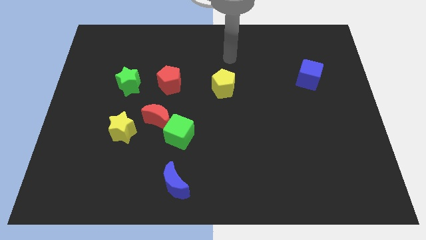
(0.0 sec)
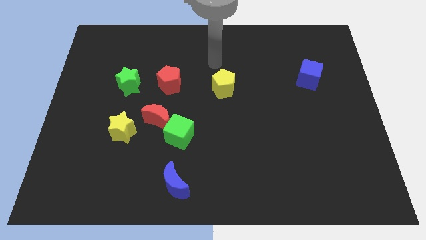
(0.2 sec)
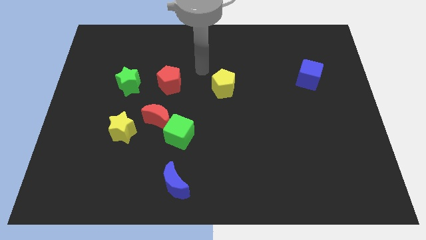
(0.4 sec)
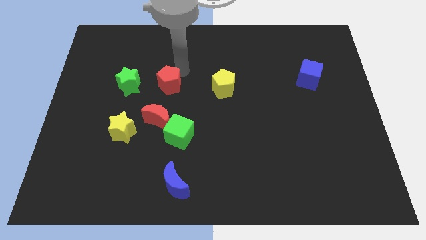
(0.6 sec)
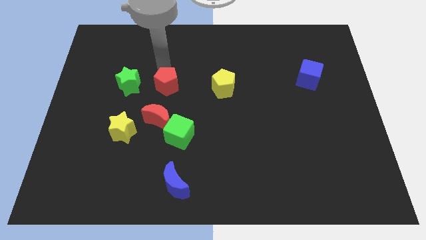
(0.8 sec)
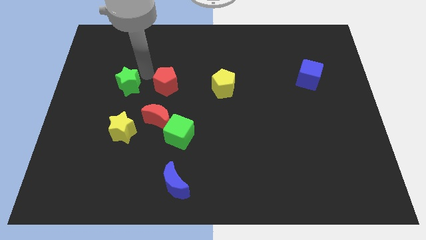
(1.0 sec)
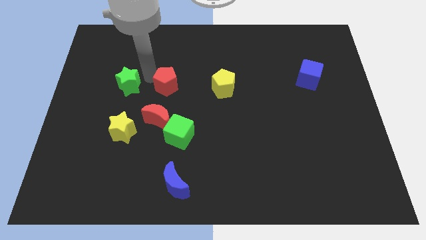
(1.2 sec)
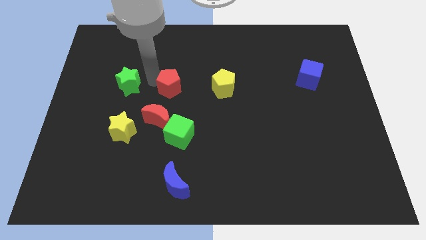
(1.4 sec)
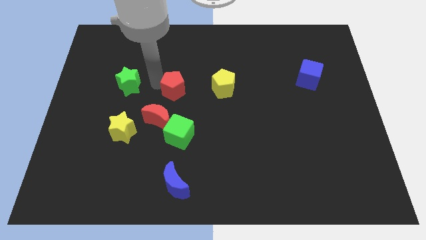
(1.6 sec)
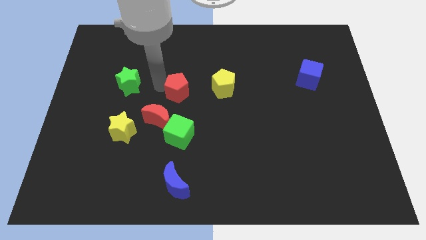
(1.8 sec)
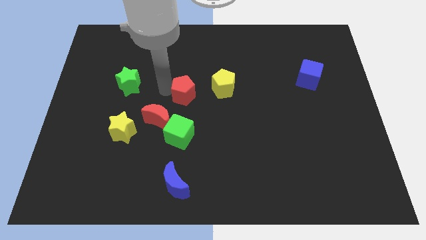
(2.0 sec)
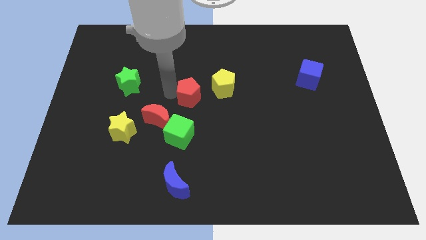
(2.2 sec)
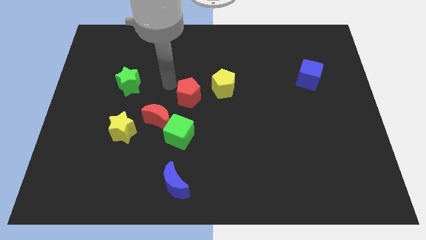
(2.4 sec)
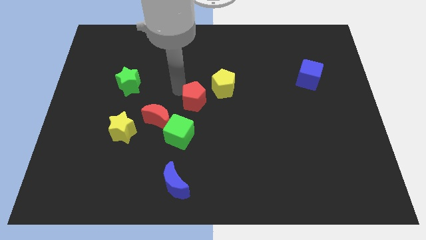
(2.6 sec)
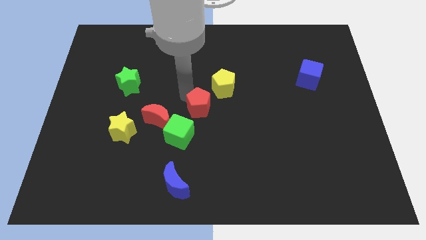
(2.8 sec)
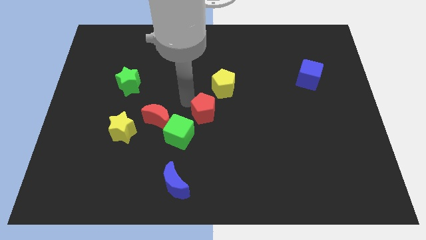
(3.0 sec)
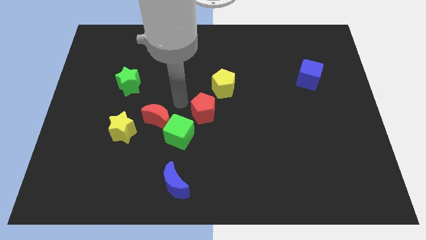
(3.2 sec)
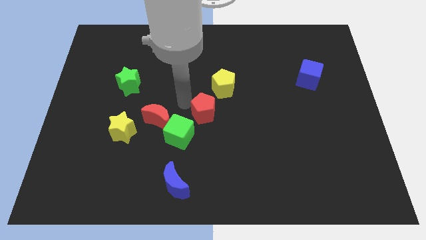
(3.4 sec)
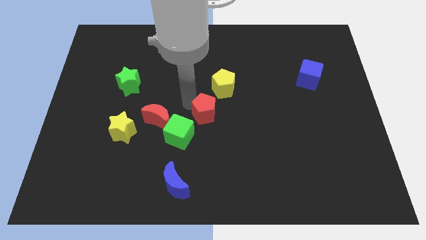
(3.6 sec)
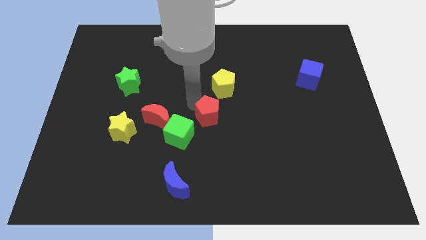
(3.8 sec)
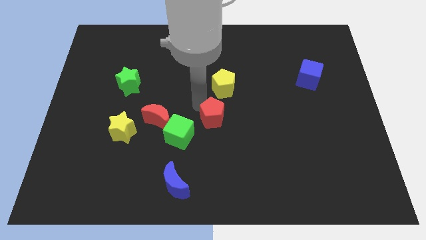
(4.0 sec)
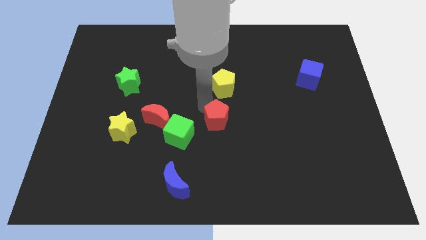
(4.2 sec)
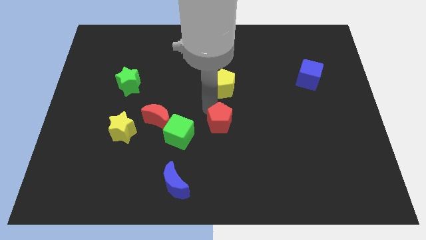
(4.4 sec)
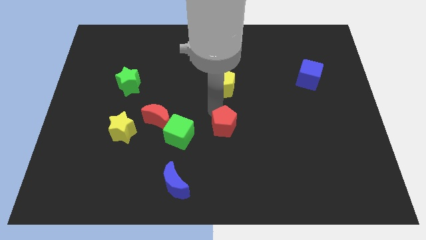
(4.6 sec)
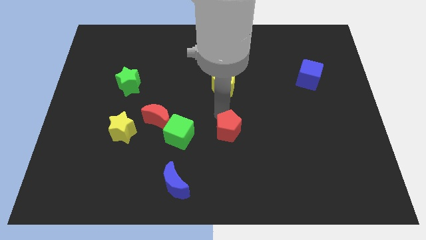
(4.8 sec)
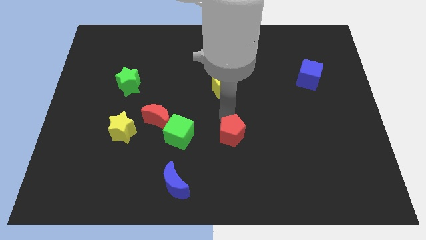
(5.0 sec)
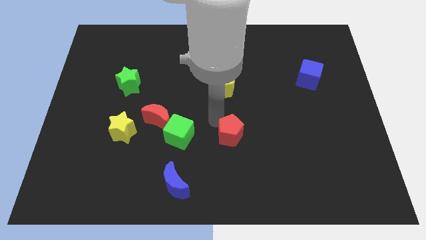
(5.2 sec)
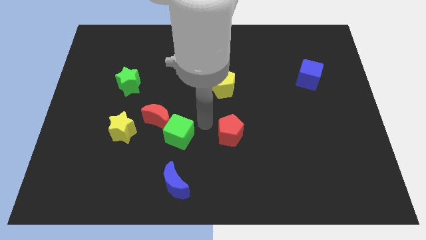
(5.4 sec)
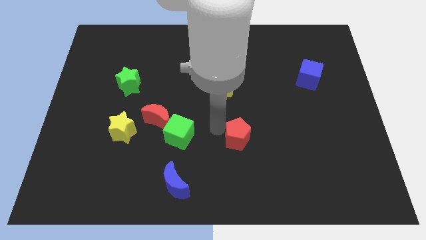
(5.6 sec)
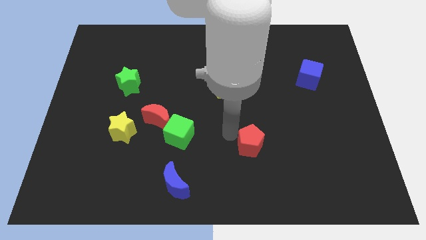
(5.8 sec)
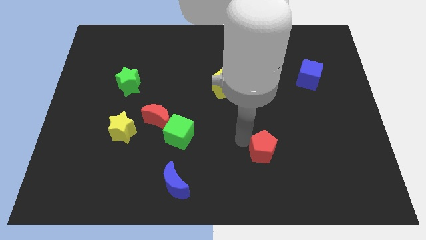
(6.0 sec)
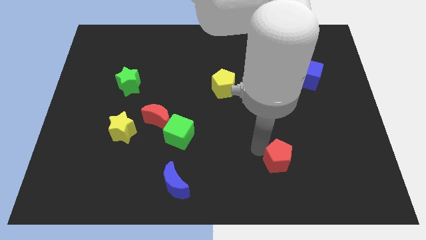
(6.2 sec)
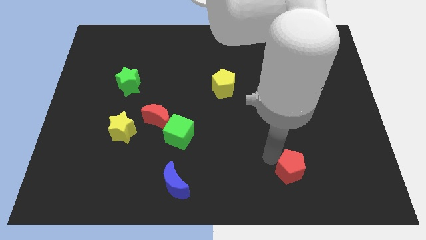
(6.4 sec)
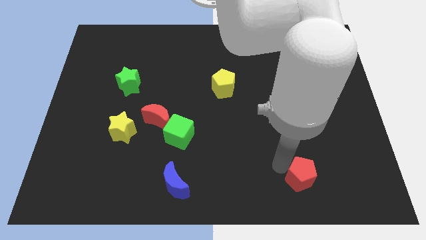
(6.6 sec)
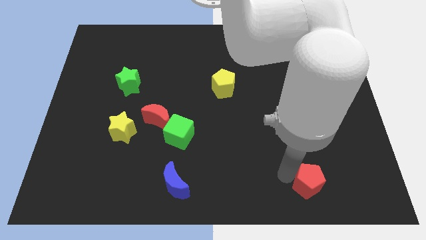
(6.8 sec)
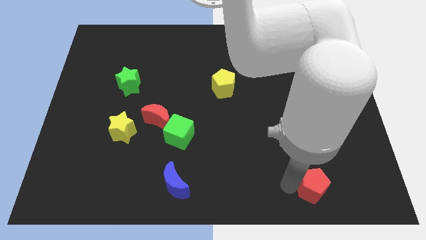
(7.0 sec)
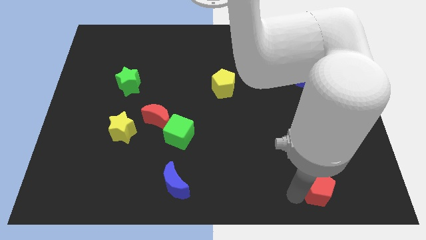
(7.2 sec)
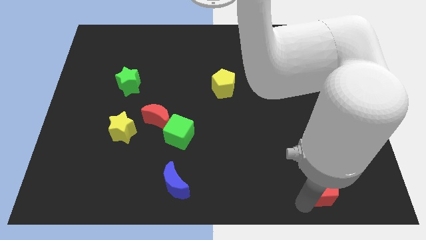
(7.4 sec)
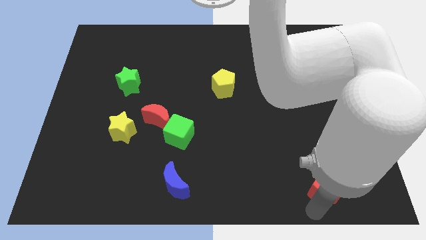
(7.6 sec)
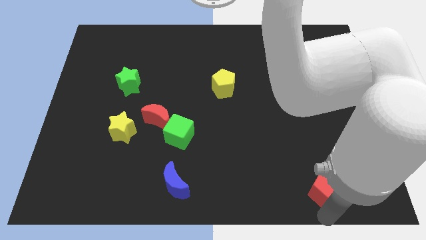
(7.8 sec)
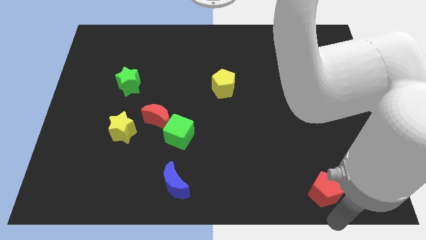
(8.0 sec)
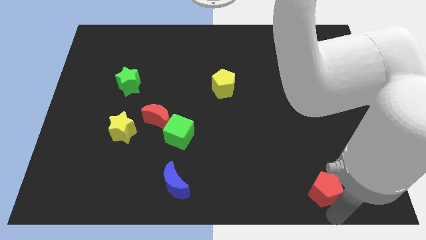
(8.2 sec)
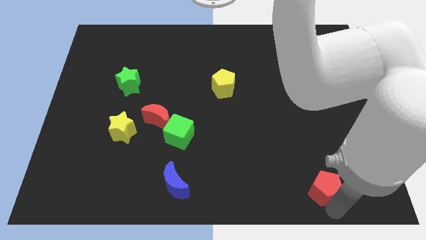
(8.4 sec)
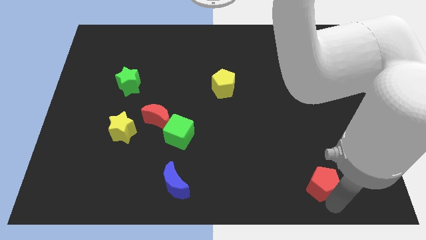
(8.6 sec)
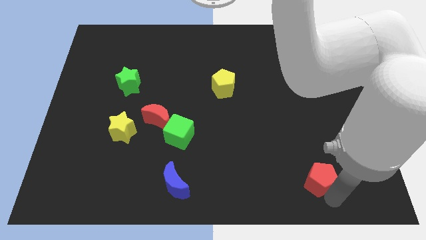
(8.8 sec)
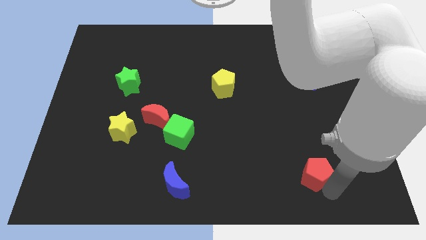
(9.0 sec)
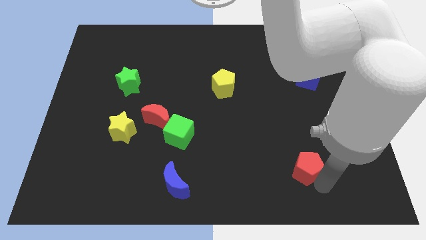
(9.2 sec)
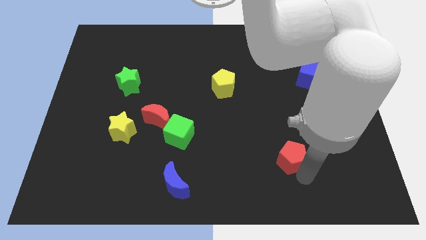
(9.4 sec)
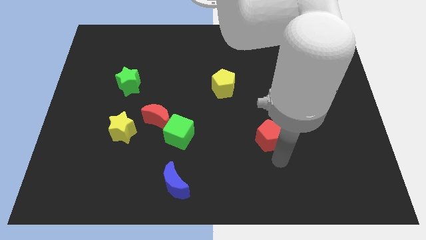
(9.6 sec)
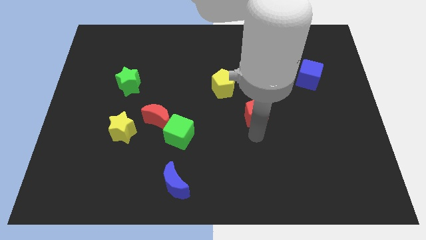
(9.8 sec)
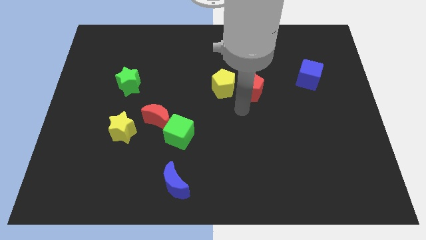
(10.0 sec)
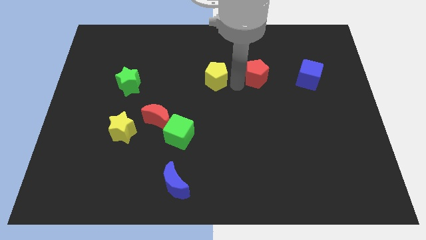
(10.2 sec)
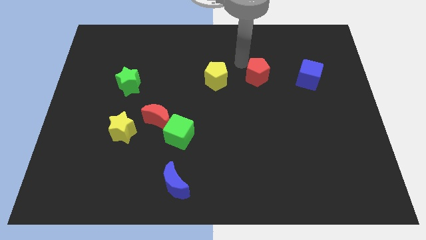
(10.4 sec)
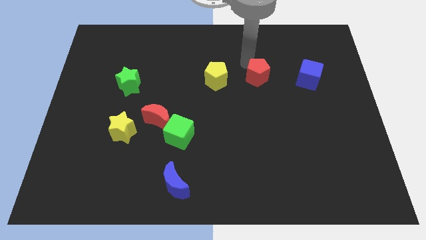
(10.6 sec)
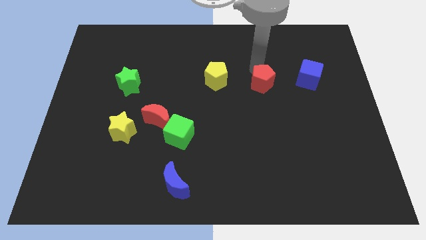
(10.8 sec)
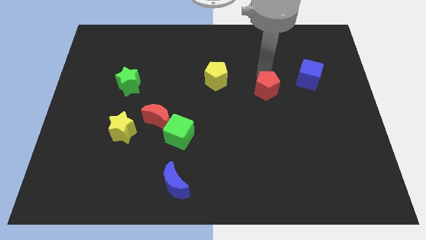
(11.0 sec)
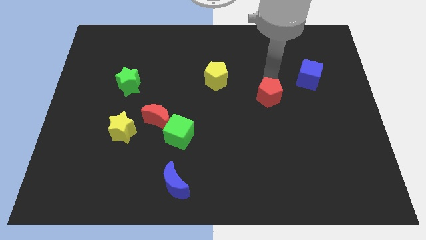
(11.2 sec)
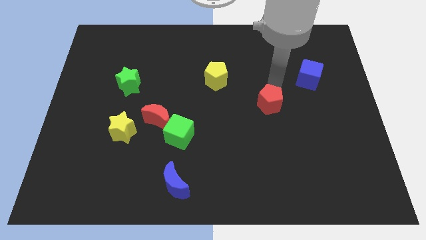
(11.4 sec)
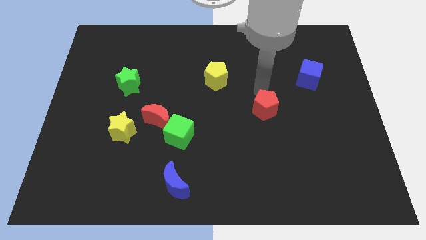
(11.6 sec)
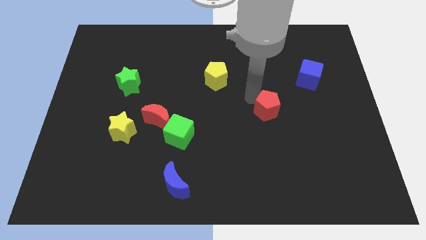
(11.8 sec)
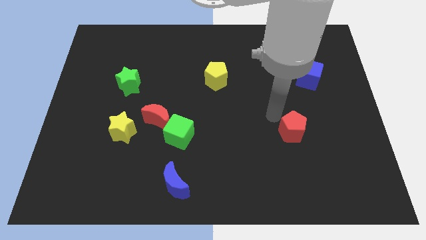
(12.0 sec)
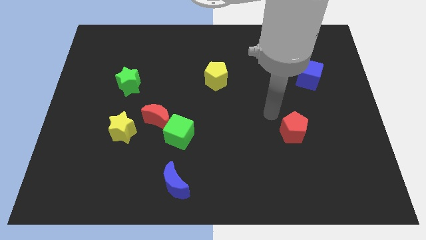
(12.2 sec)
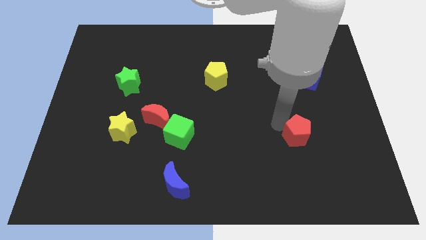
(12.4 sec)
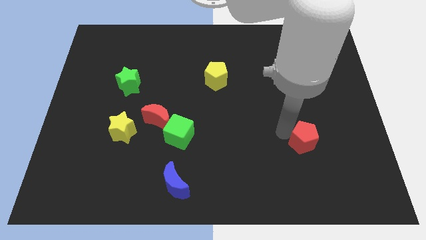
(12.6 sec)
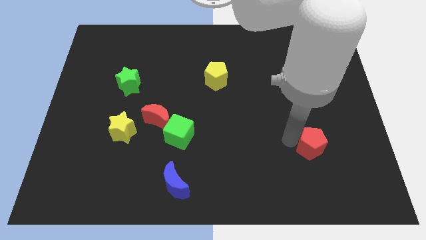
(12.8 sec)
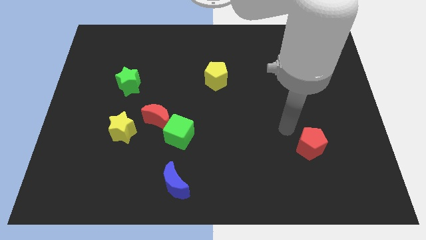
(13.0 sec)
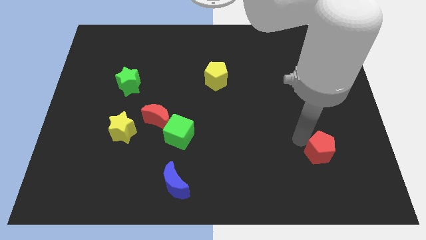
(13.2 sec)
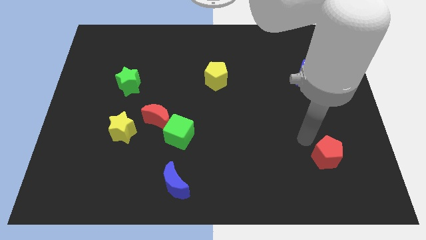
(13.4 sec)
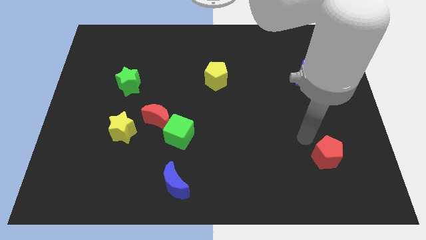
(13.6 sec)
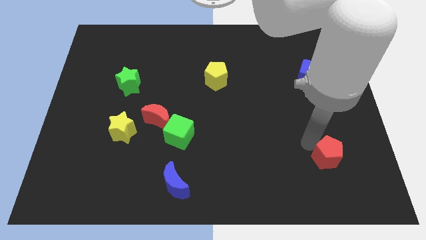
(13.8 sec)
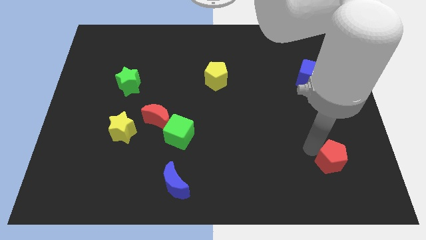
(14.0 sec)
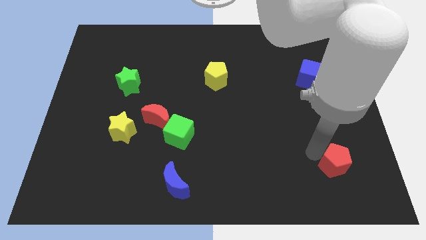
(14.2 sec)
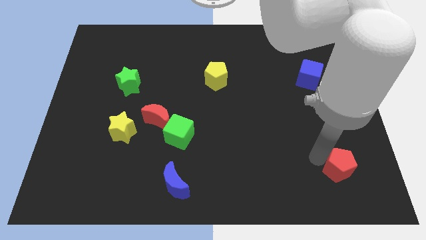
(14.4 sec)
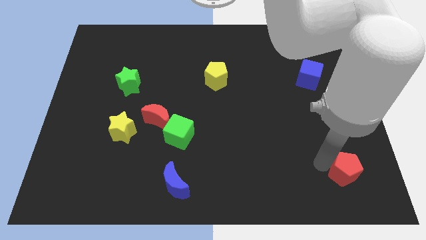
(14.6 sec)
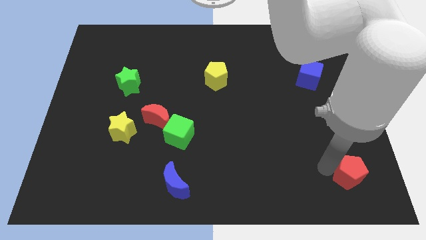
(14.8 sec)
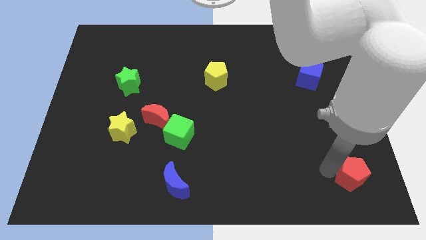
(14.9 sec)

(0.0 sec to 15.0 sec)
put the red pentagon to the lower right corner
